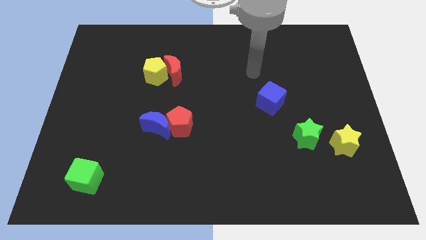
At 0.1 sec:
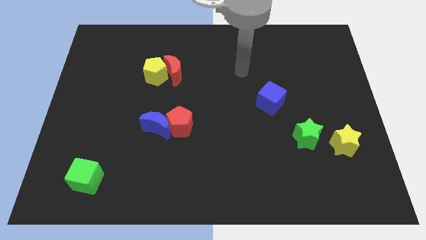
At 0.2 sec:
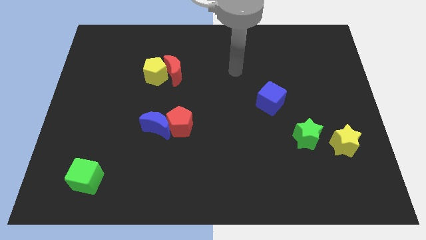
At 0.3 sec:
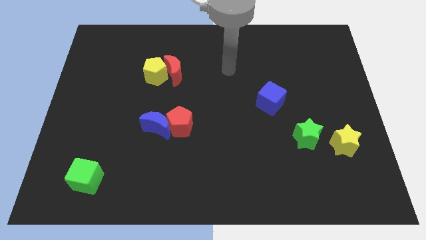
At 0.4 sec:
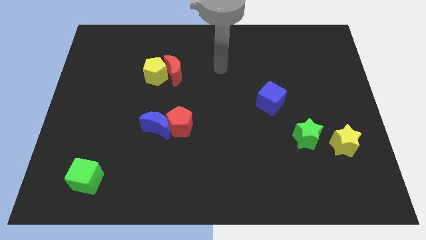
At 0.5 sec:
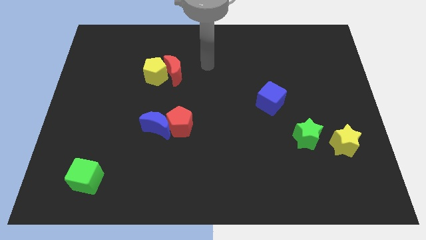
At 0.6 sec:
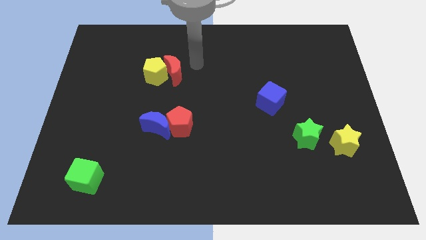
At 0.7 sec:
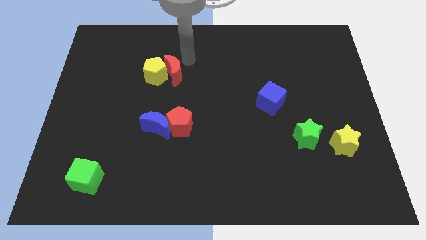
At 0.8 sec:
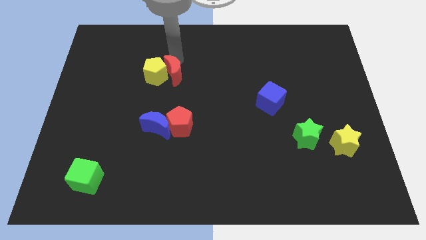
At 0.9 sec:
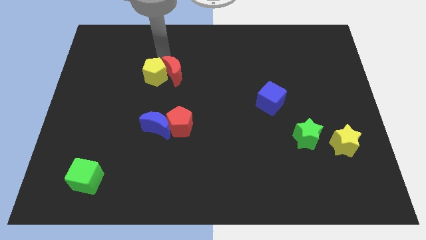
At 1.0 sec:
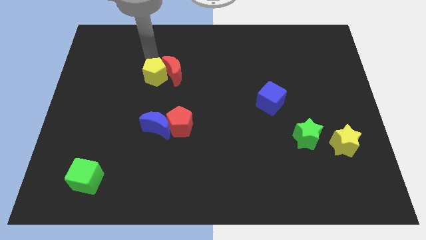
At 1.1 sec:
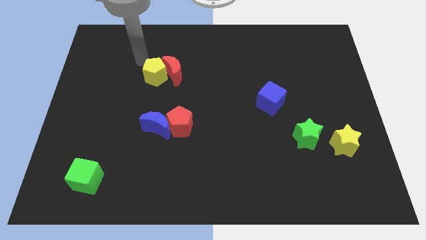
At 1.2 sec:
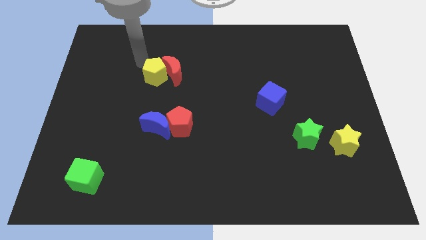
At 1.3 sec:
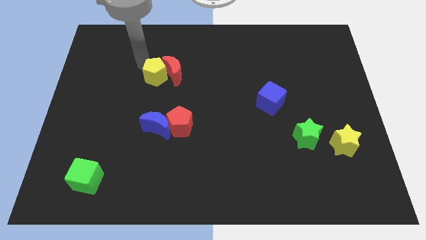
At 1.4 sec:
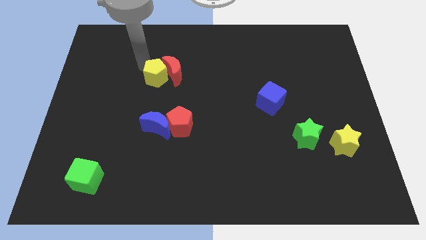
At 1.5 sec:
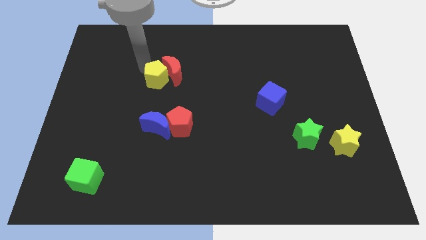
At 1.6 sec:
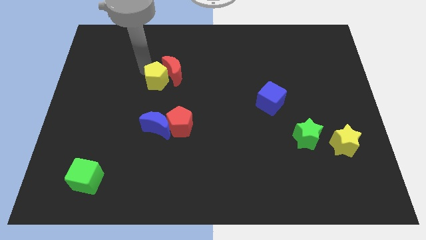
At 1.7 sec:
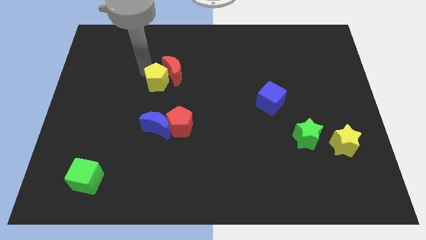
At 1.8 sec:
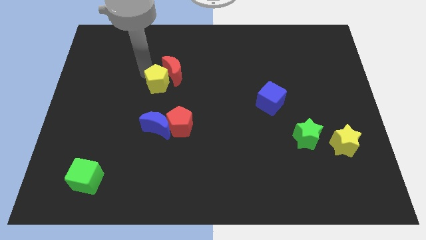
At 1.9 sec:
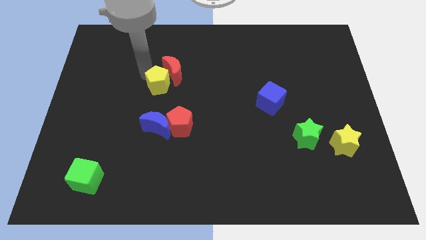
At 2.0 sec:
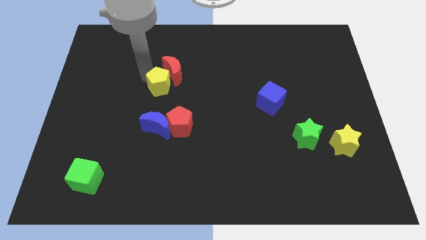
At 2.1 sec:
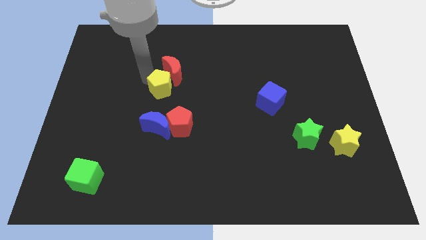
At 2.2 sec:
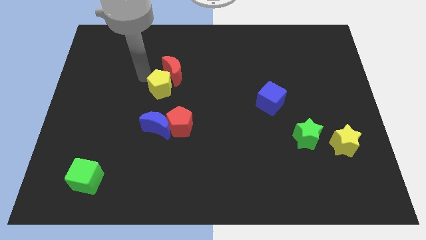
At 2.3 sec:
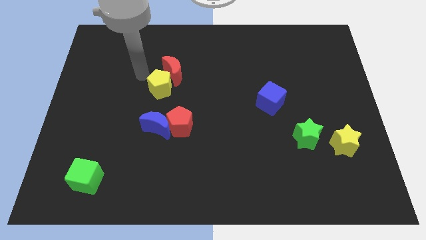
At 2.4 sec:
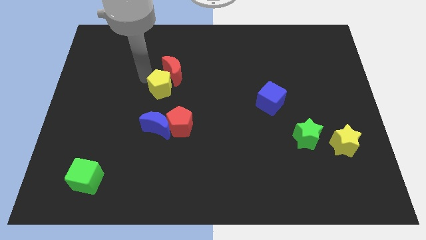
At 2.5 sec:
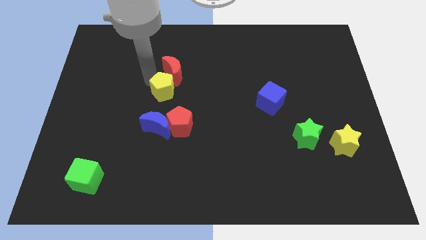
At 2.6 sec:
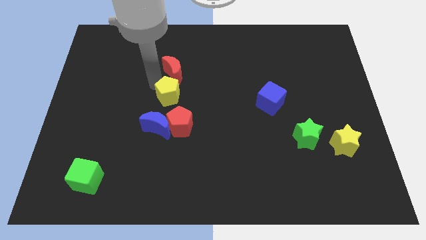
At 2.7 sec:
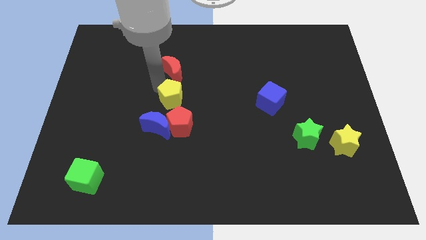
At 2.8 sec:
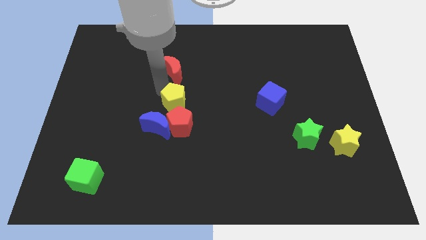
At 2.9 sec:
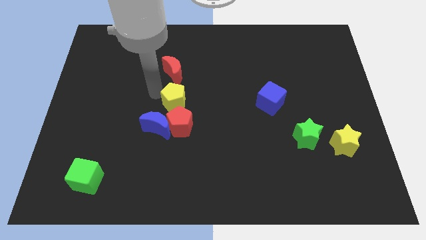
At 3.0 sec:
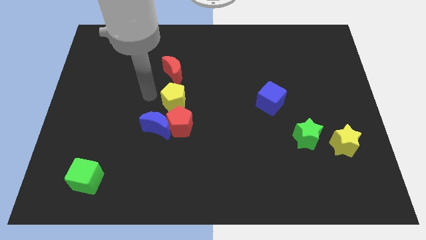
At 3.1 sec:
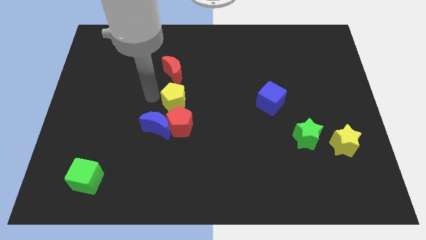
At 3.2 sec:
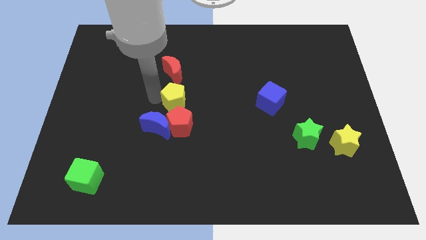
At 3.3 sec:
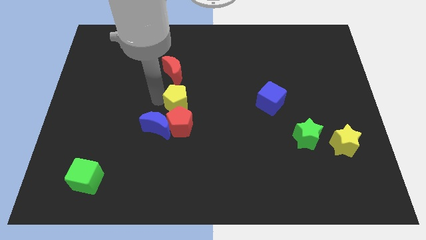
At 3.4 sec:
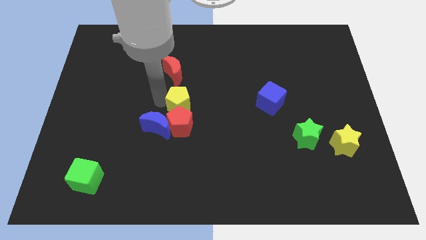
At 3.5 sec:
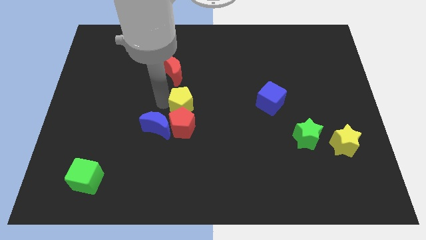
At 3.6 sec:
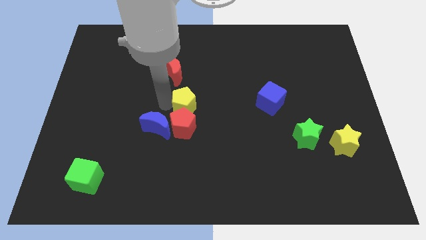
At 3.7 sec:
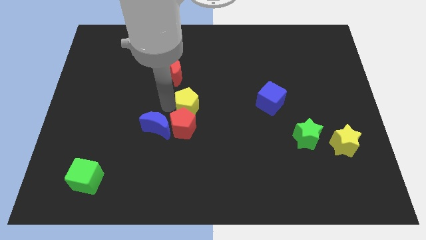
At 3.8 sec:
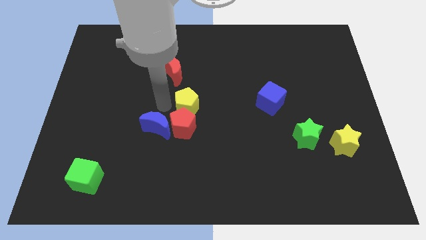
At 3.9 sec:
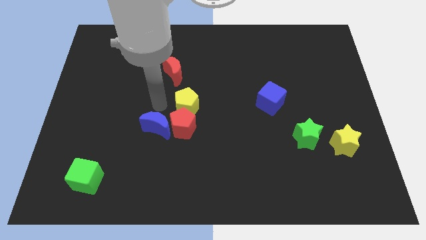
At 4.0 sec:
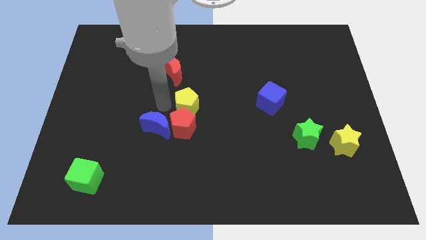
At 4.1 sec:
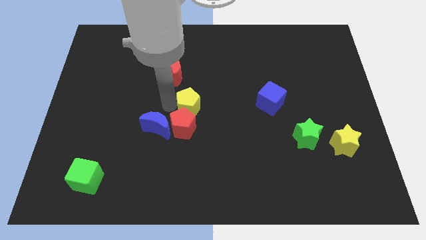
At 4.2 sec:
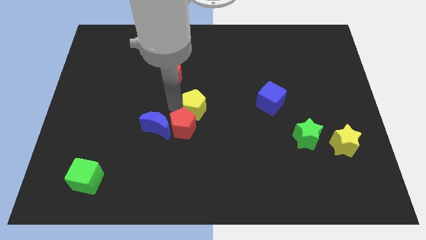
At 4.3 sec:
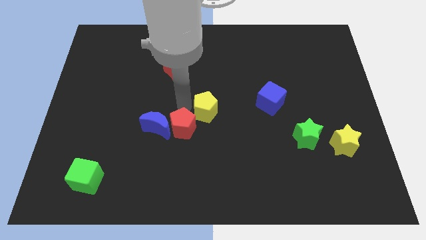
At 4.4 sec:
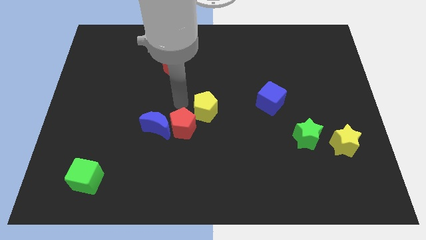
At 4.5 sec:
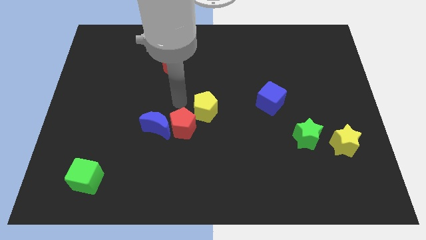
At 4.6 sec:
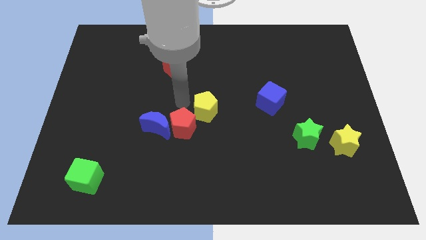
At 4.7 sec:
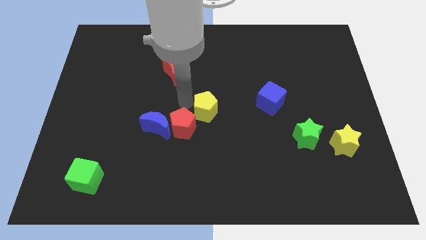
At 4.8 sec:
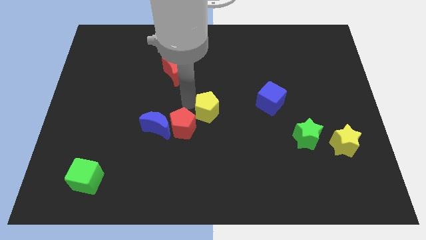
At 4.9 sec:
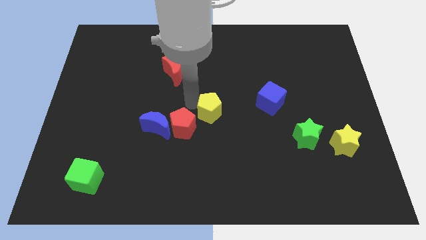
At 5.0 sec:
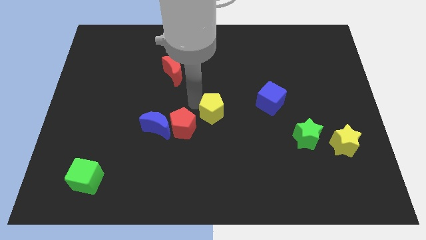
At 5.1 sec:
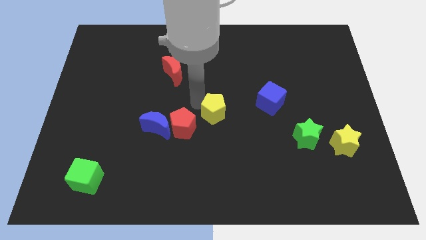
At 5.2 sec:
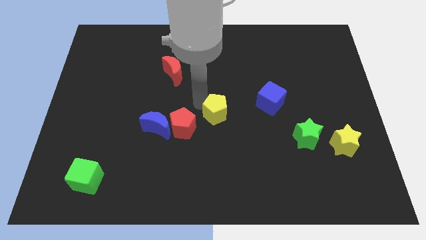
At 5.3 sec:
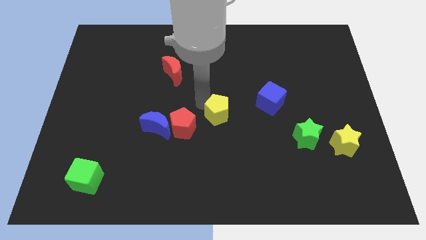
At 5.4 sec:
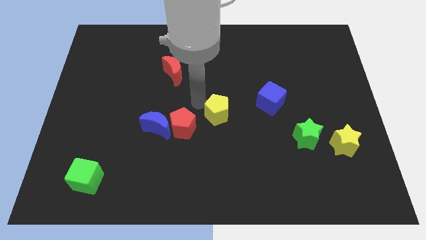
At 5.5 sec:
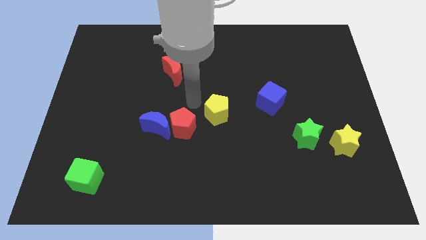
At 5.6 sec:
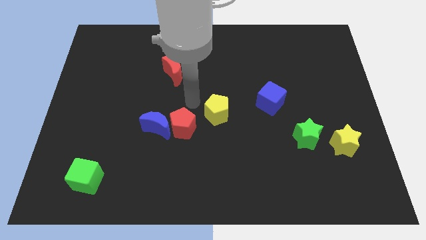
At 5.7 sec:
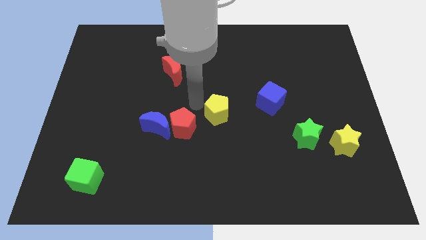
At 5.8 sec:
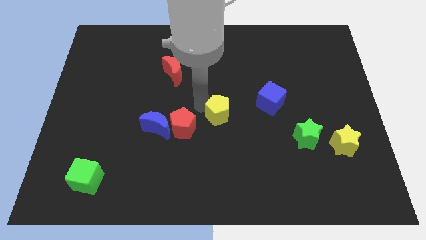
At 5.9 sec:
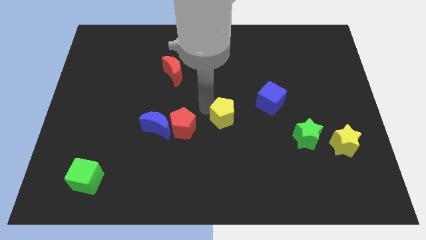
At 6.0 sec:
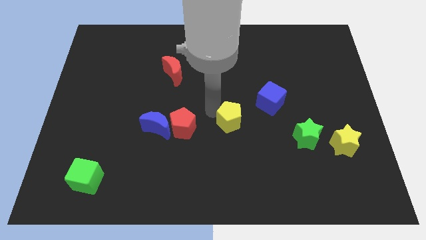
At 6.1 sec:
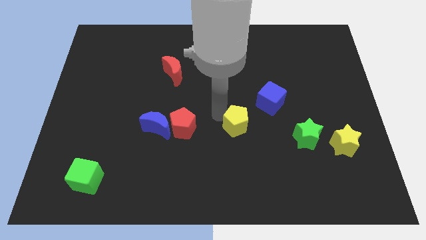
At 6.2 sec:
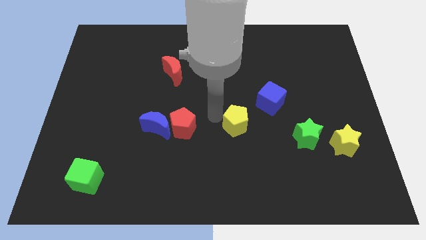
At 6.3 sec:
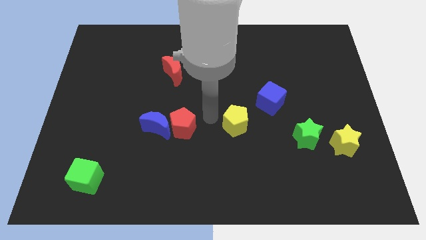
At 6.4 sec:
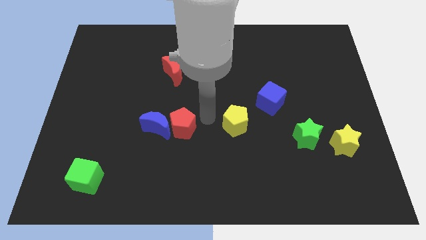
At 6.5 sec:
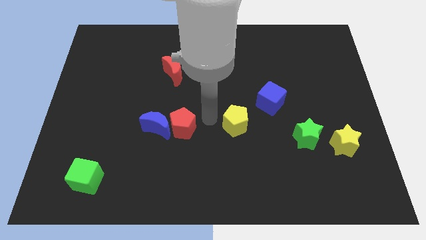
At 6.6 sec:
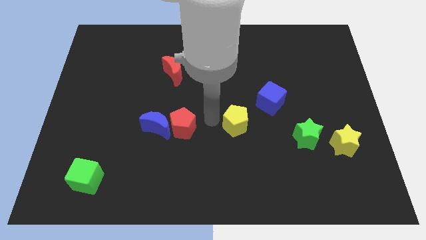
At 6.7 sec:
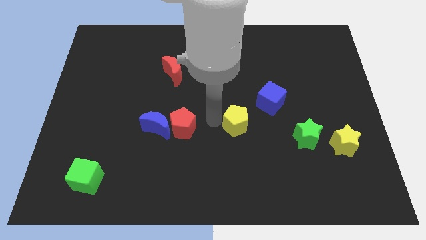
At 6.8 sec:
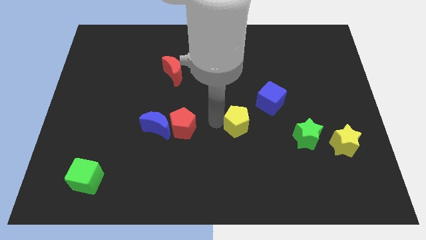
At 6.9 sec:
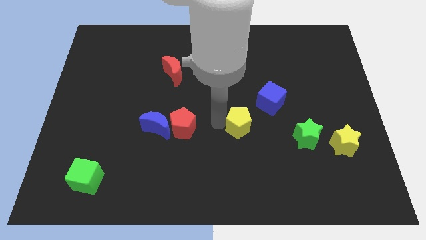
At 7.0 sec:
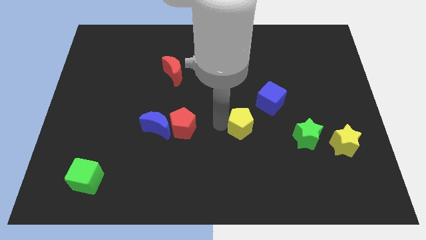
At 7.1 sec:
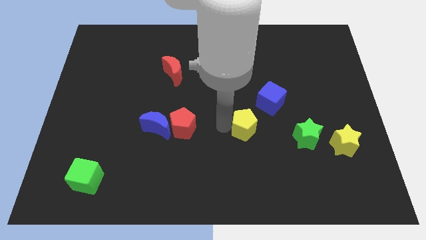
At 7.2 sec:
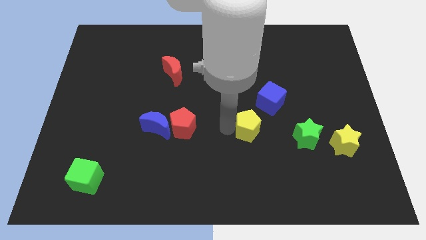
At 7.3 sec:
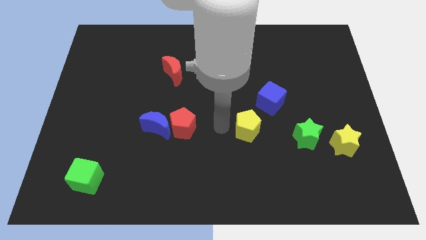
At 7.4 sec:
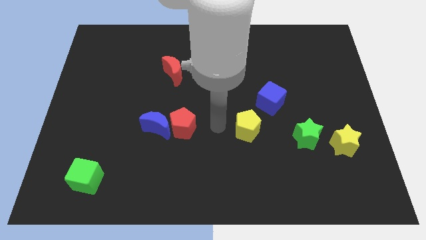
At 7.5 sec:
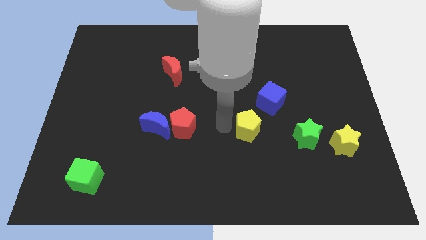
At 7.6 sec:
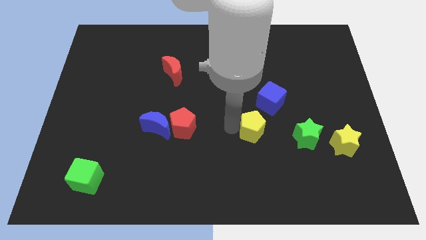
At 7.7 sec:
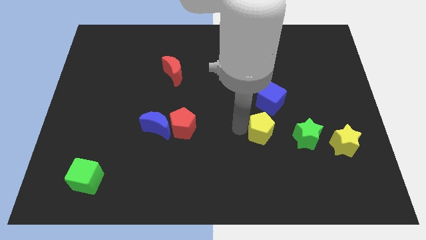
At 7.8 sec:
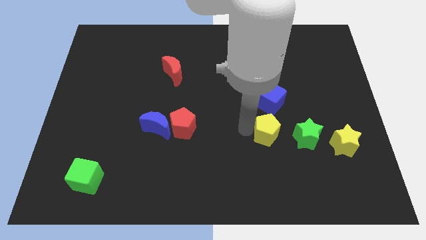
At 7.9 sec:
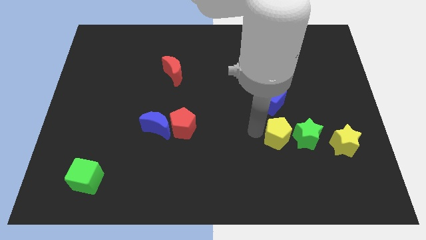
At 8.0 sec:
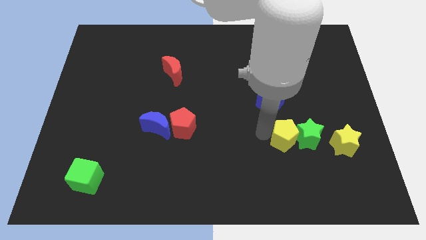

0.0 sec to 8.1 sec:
push the yellow pentagon towards the green star
